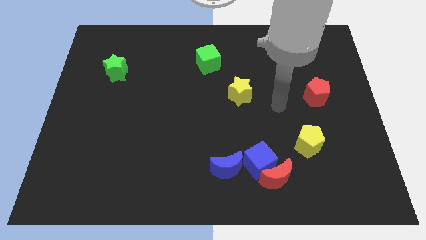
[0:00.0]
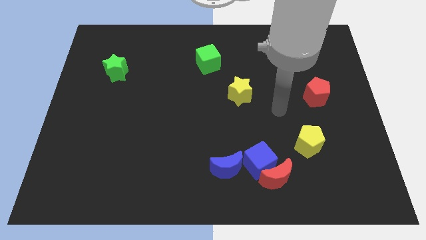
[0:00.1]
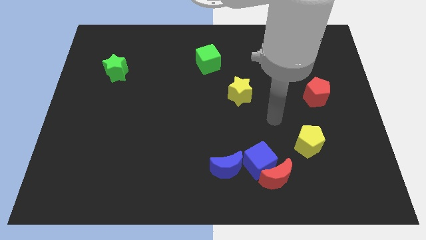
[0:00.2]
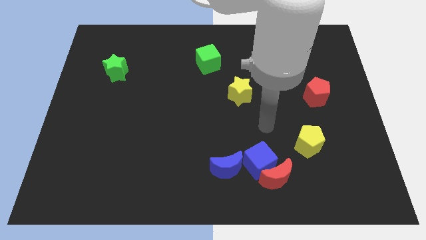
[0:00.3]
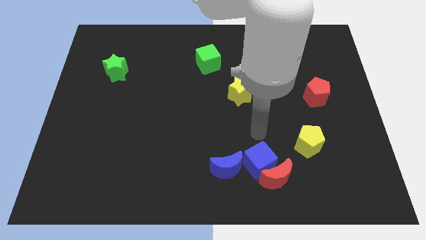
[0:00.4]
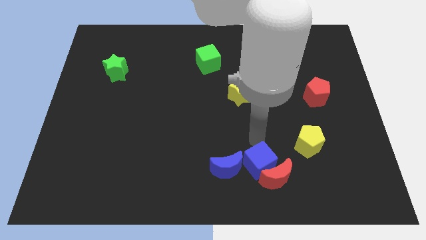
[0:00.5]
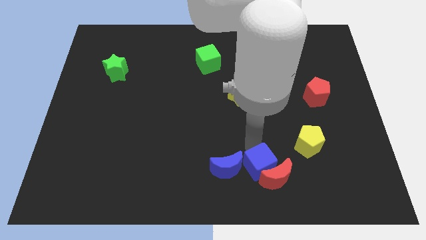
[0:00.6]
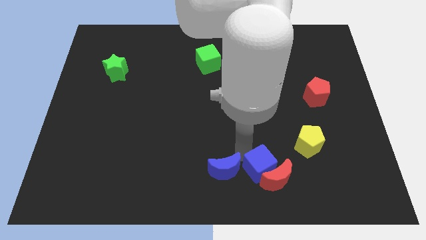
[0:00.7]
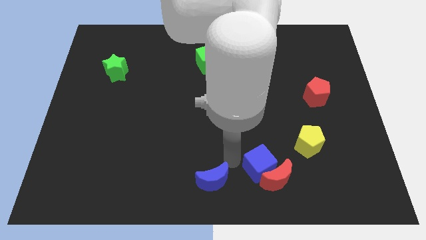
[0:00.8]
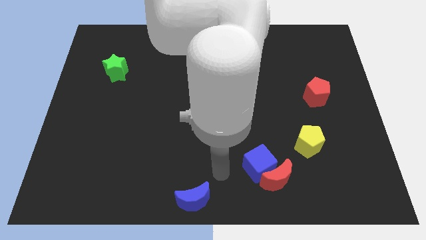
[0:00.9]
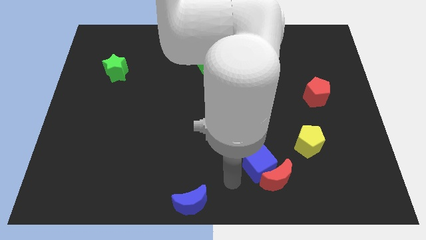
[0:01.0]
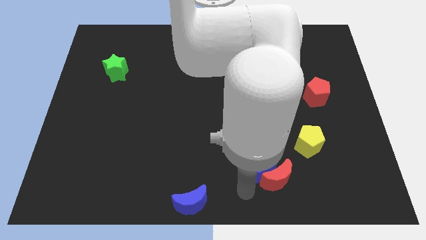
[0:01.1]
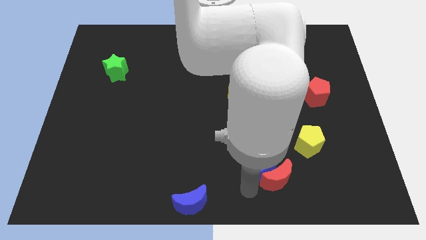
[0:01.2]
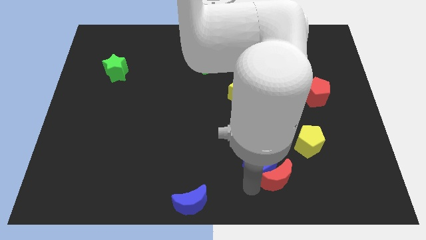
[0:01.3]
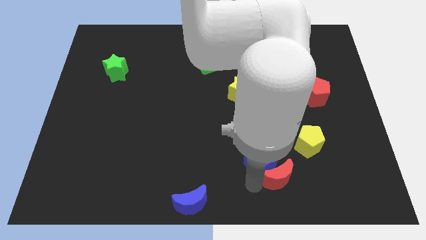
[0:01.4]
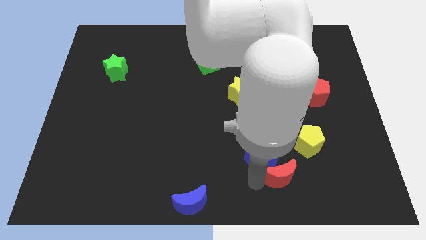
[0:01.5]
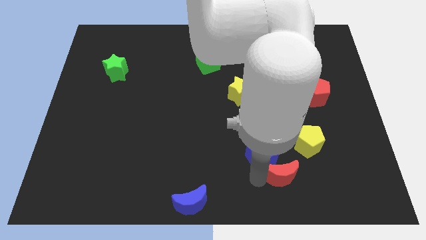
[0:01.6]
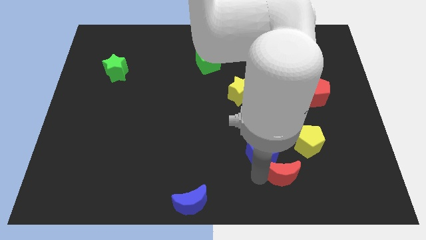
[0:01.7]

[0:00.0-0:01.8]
separate the blue cube from the red moon and blue moon

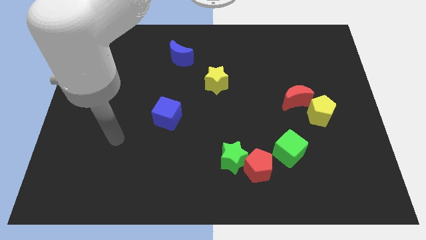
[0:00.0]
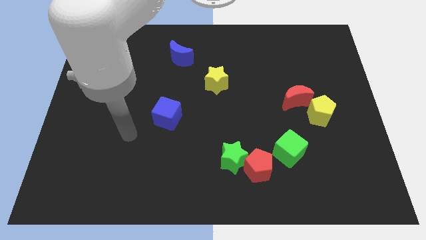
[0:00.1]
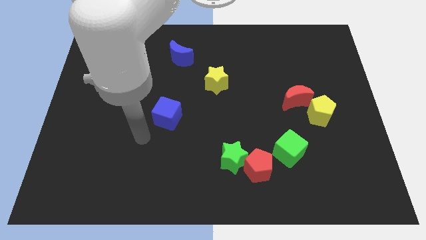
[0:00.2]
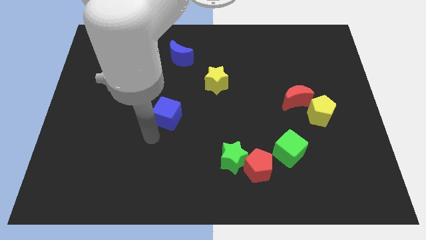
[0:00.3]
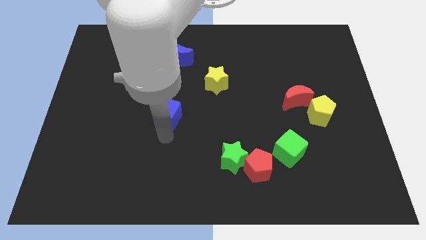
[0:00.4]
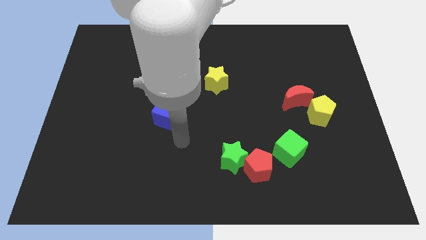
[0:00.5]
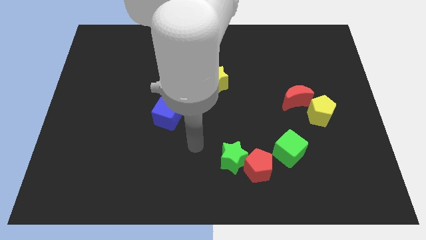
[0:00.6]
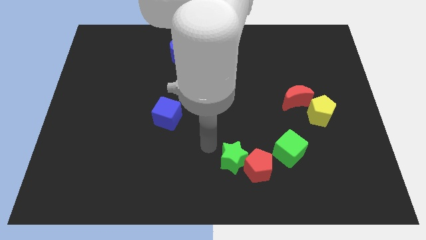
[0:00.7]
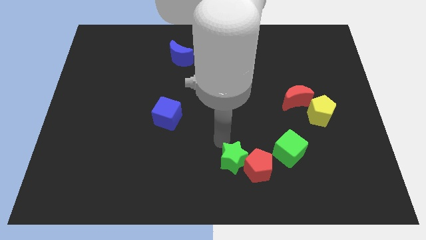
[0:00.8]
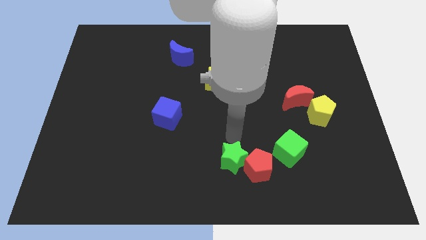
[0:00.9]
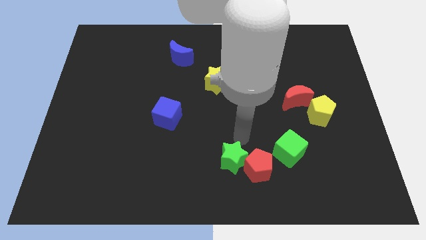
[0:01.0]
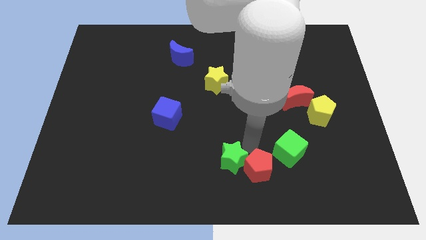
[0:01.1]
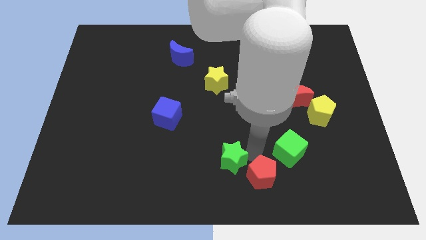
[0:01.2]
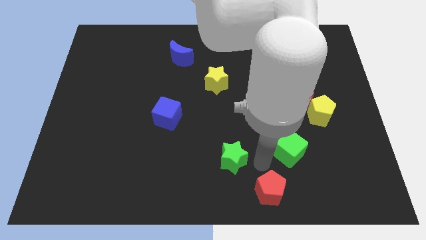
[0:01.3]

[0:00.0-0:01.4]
move the green star away from the red pentagon

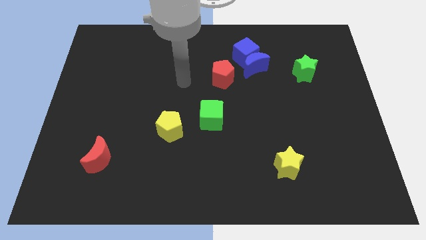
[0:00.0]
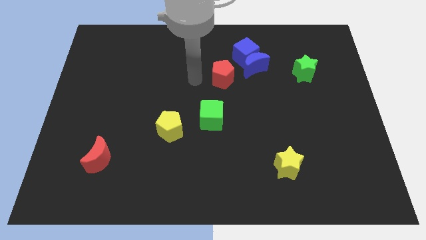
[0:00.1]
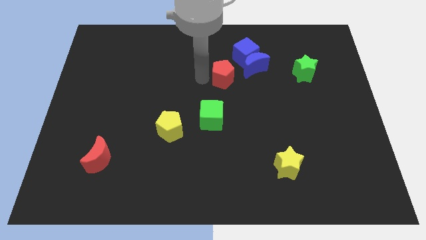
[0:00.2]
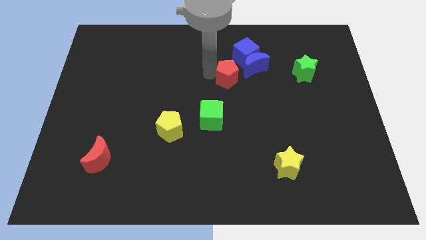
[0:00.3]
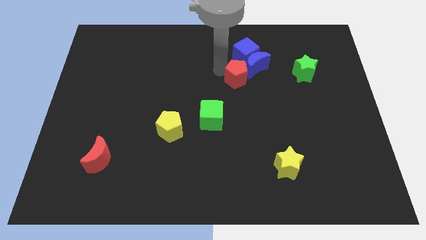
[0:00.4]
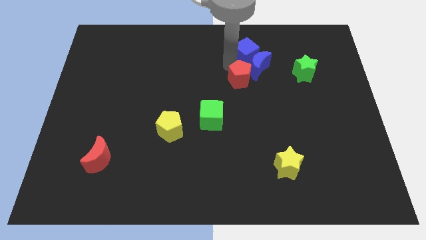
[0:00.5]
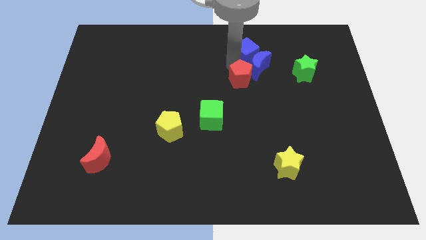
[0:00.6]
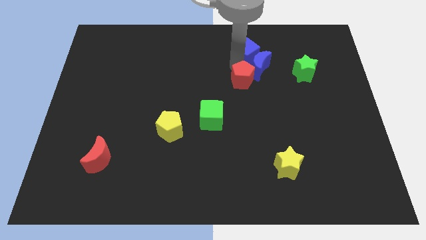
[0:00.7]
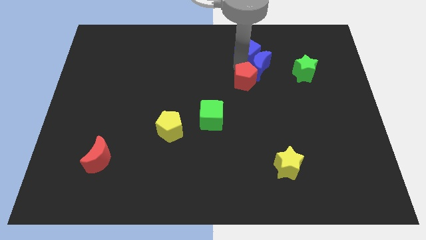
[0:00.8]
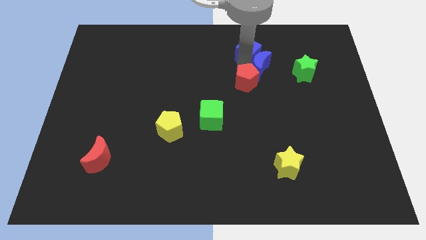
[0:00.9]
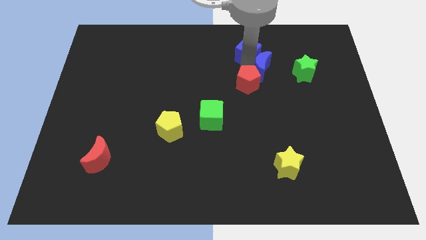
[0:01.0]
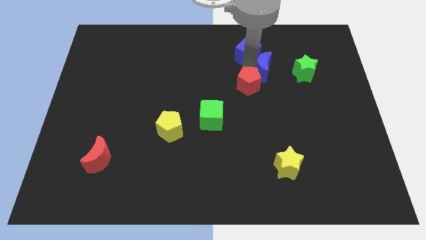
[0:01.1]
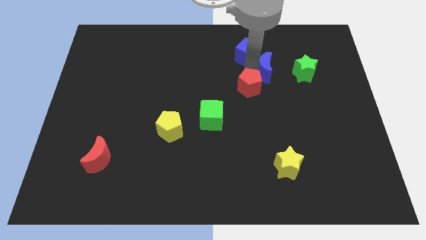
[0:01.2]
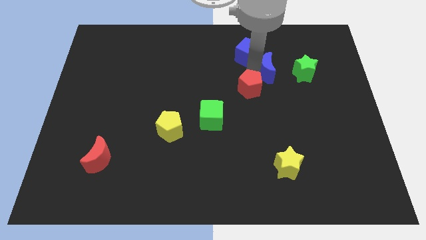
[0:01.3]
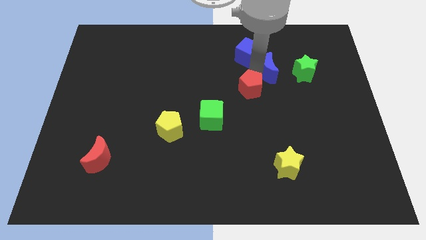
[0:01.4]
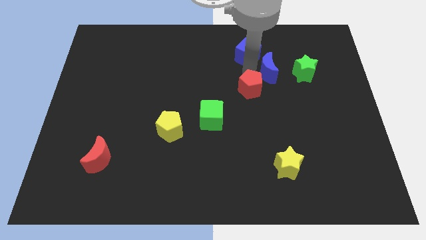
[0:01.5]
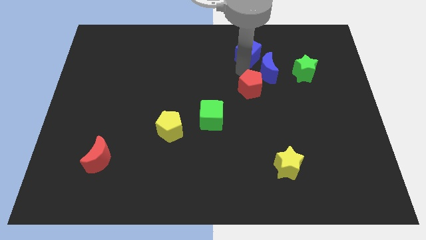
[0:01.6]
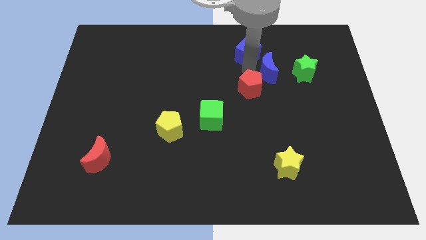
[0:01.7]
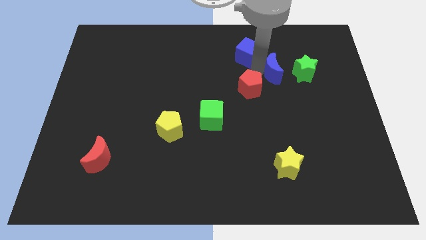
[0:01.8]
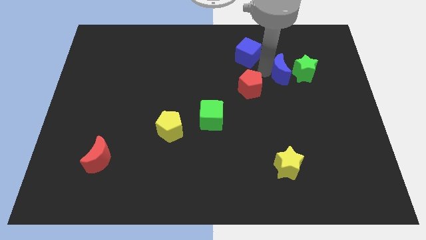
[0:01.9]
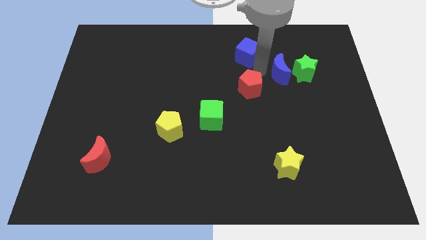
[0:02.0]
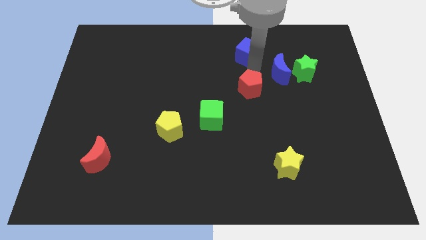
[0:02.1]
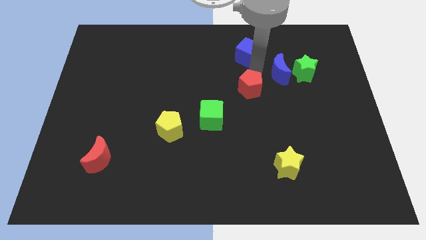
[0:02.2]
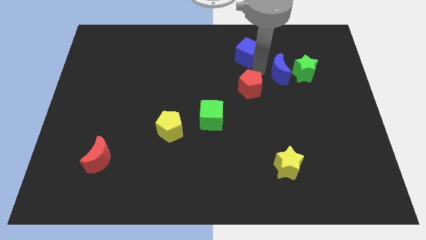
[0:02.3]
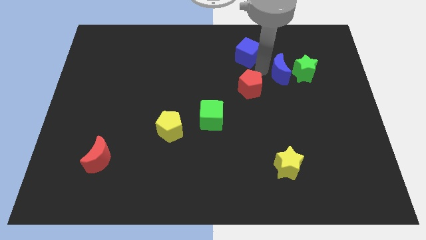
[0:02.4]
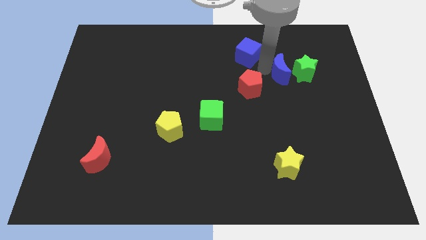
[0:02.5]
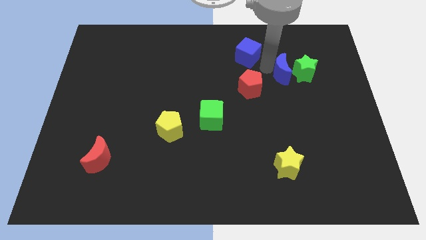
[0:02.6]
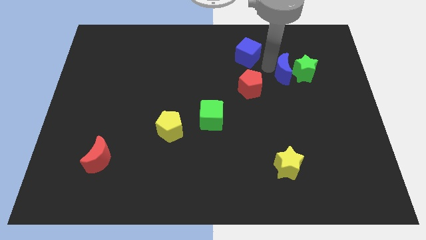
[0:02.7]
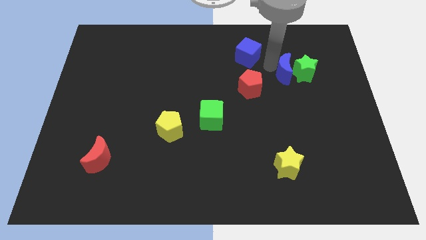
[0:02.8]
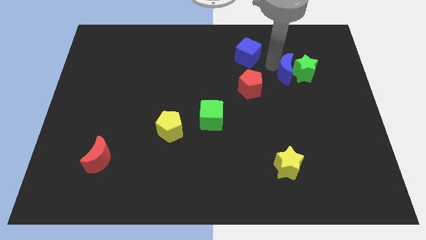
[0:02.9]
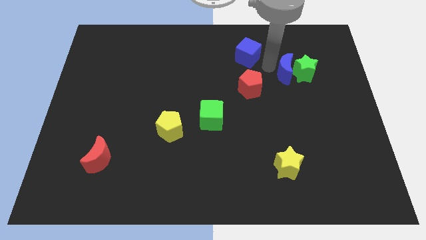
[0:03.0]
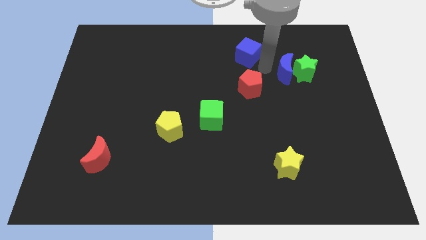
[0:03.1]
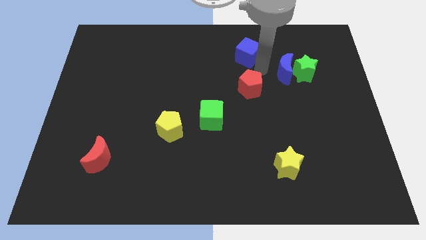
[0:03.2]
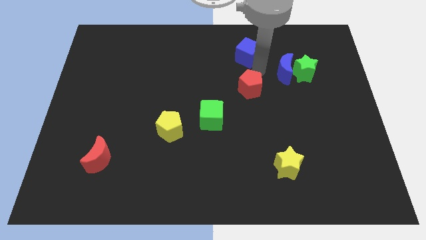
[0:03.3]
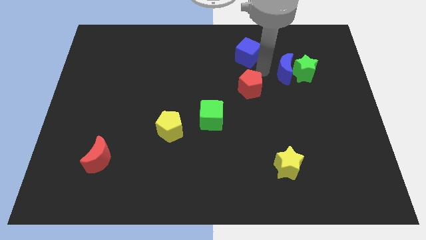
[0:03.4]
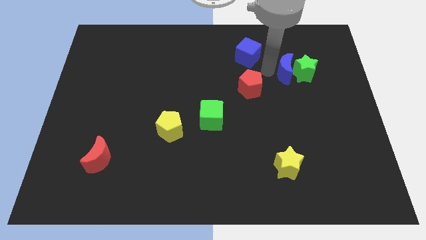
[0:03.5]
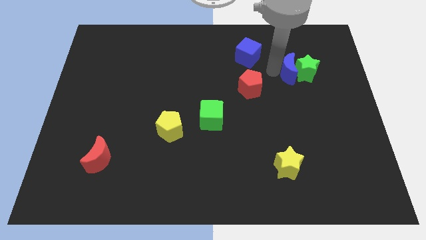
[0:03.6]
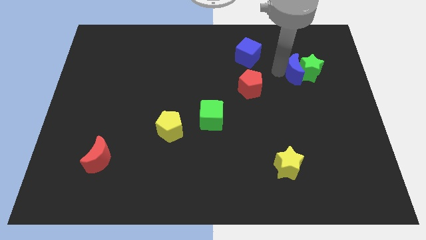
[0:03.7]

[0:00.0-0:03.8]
separate the blue moon from the blue cube and red pentagon

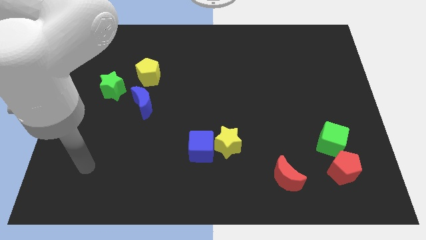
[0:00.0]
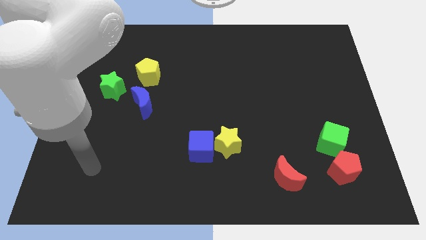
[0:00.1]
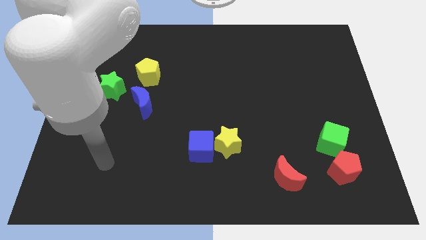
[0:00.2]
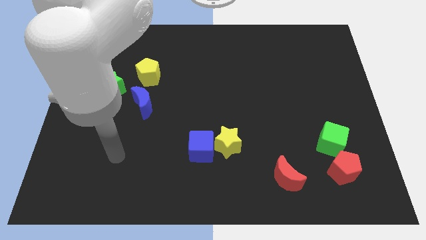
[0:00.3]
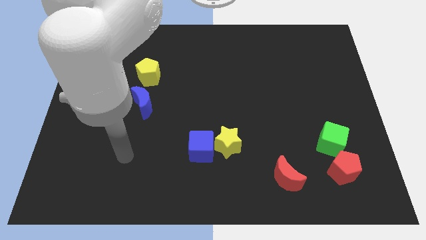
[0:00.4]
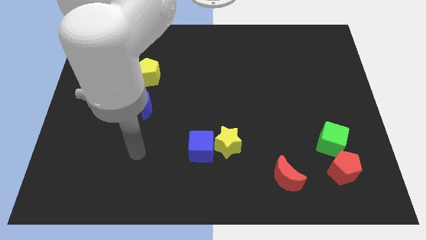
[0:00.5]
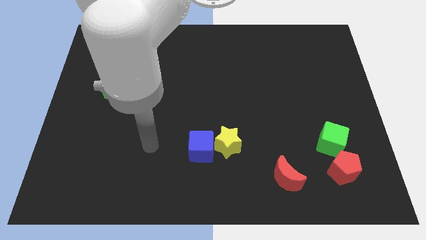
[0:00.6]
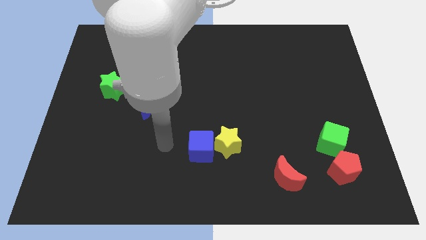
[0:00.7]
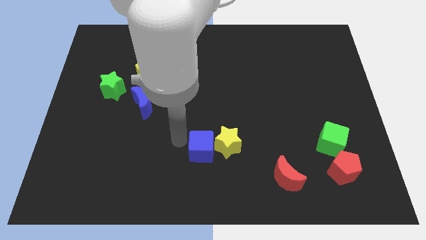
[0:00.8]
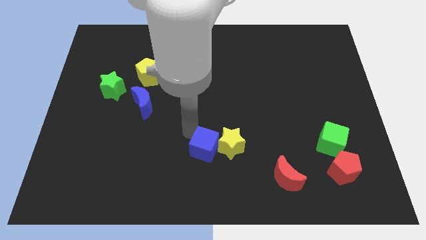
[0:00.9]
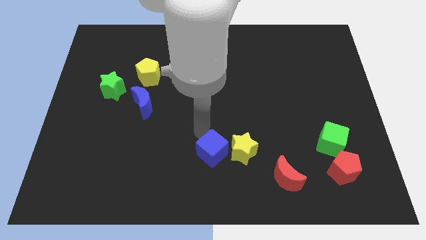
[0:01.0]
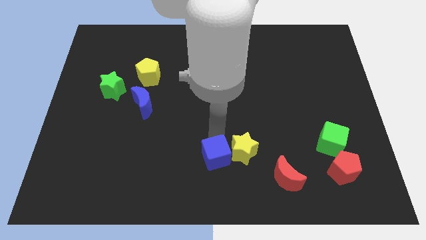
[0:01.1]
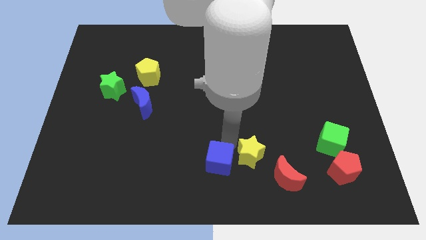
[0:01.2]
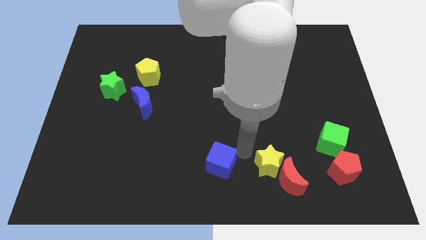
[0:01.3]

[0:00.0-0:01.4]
separate the blue cube from the yellow star

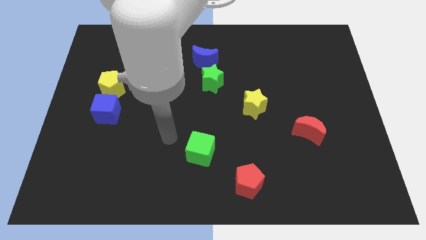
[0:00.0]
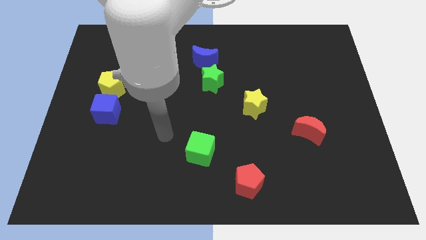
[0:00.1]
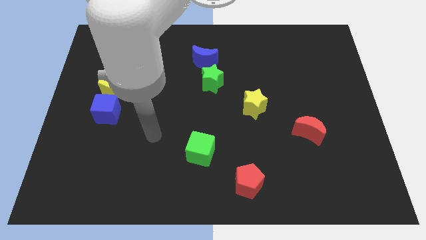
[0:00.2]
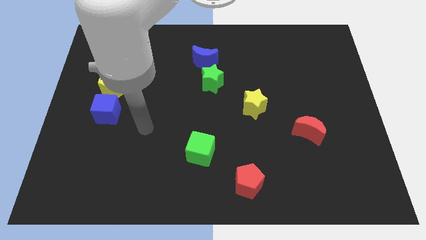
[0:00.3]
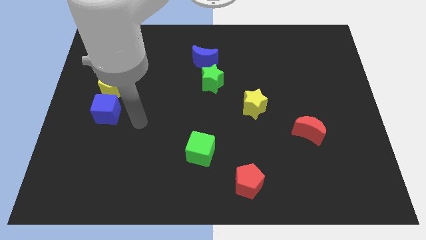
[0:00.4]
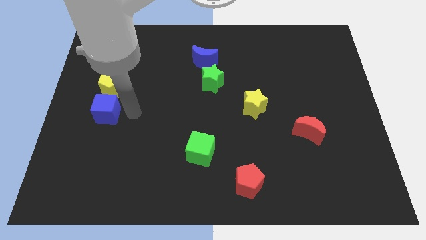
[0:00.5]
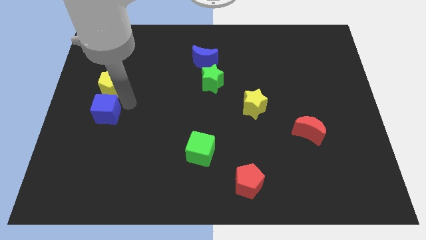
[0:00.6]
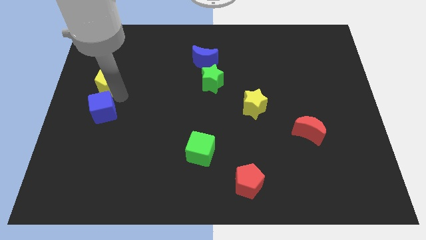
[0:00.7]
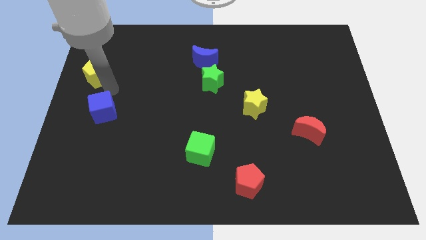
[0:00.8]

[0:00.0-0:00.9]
move the blue cube away from the yellow pentagon
